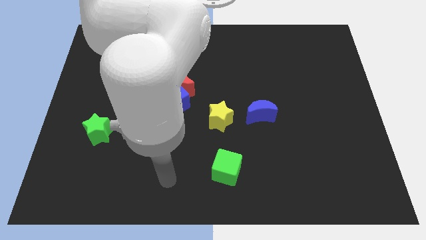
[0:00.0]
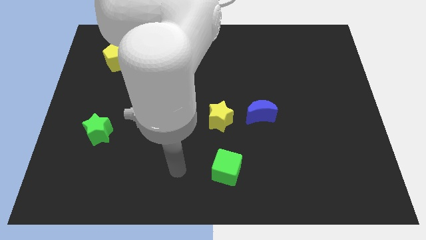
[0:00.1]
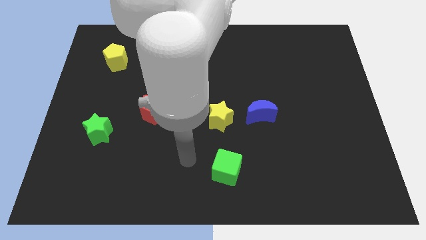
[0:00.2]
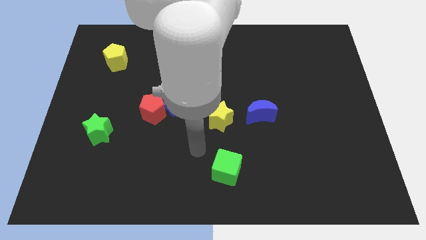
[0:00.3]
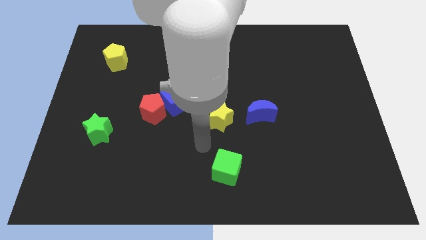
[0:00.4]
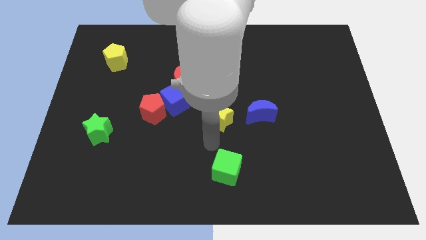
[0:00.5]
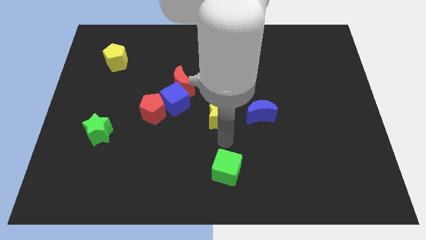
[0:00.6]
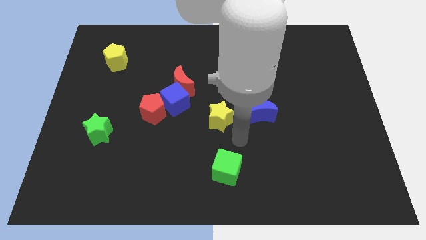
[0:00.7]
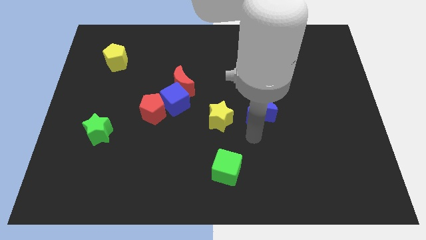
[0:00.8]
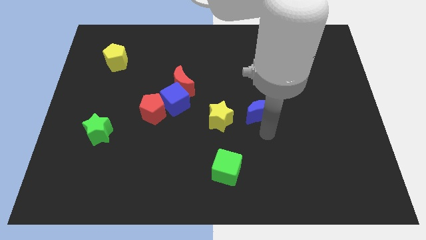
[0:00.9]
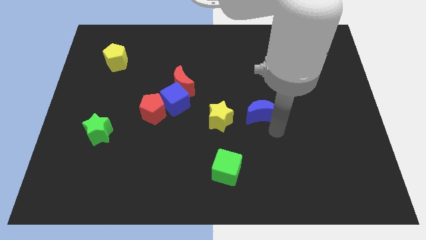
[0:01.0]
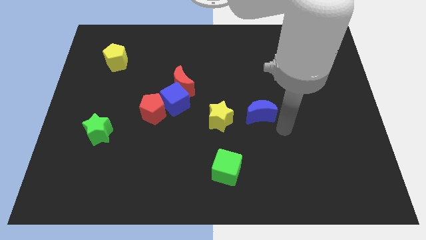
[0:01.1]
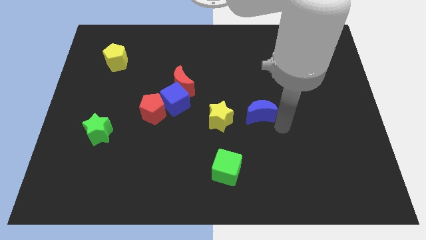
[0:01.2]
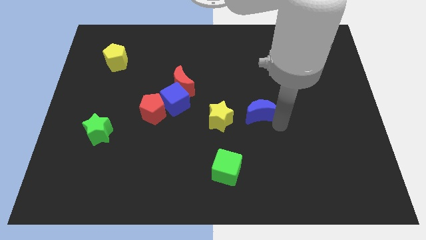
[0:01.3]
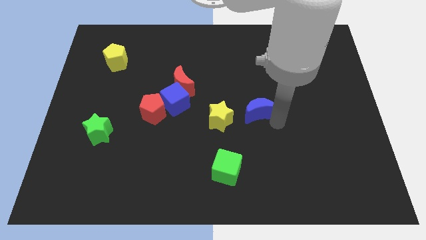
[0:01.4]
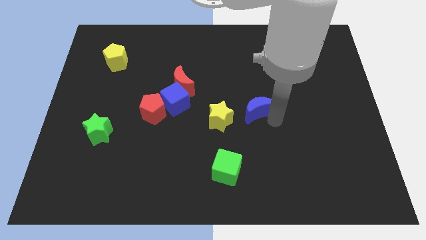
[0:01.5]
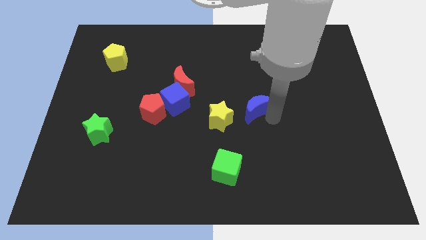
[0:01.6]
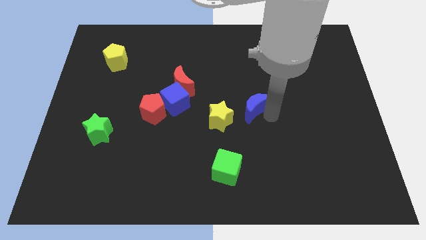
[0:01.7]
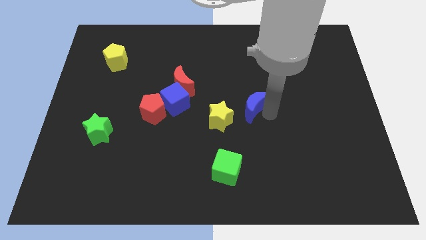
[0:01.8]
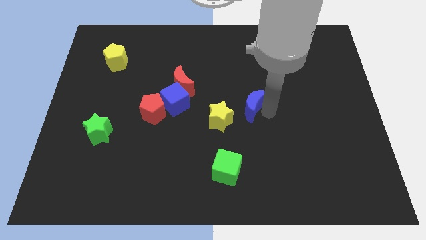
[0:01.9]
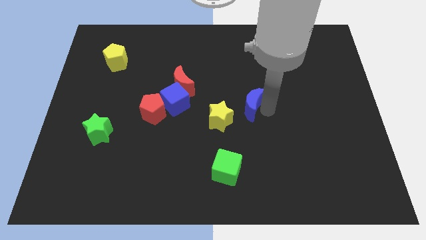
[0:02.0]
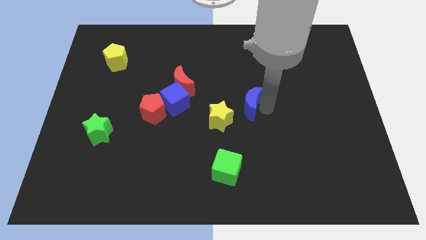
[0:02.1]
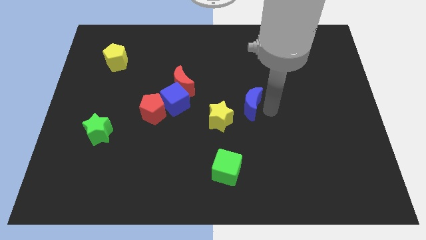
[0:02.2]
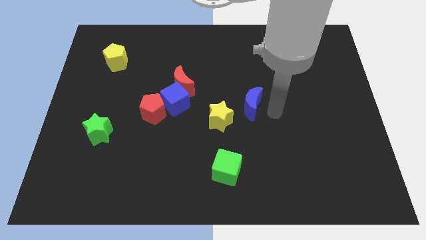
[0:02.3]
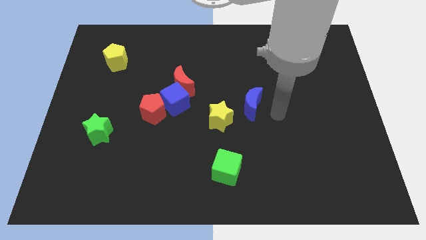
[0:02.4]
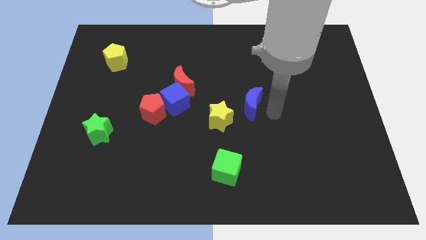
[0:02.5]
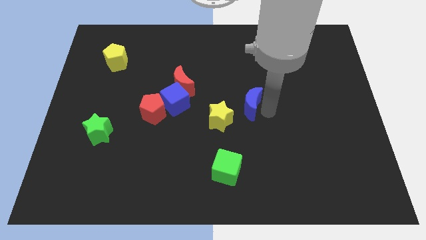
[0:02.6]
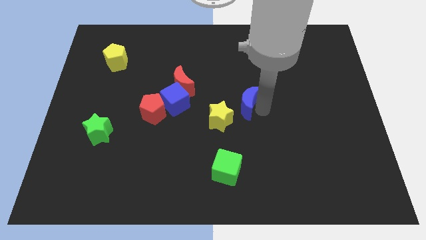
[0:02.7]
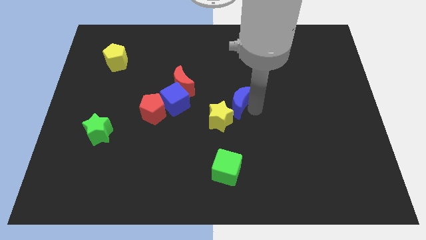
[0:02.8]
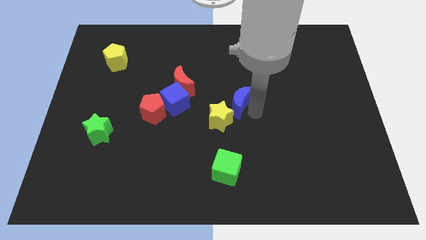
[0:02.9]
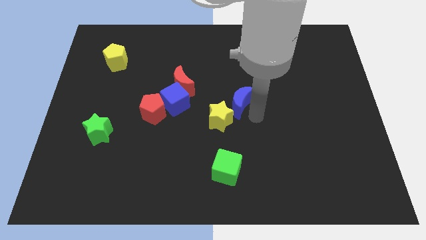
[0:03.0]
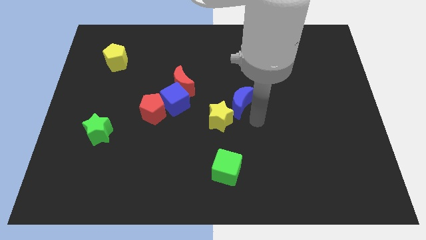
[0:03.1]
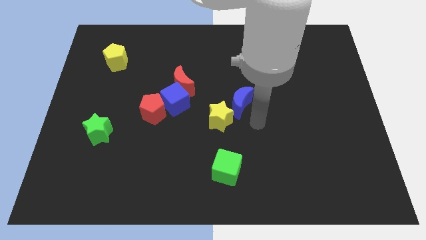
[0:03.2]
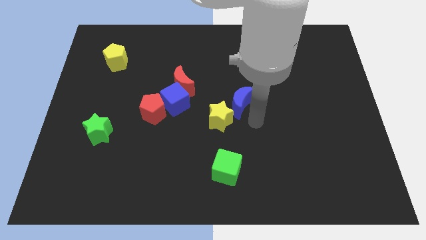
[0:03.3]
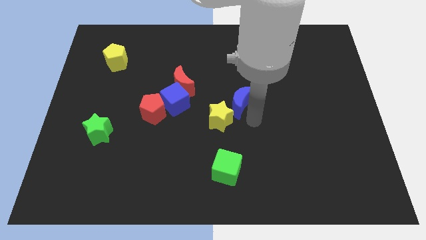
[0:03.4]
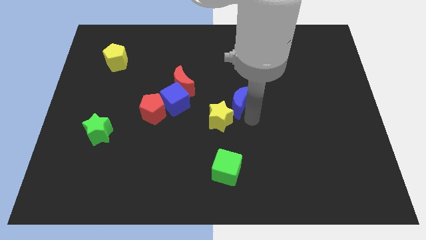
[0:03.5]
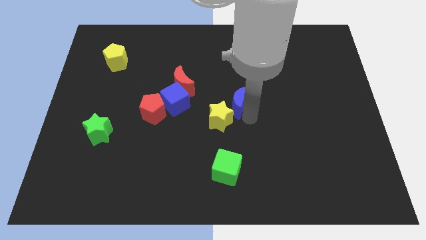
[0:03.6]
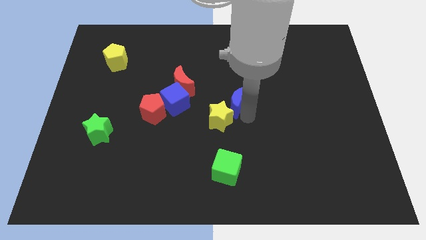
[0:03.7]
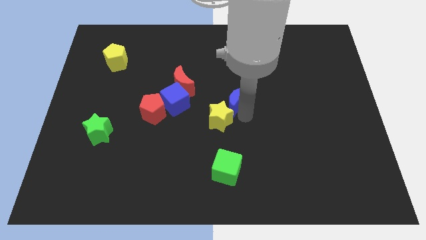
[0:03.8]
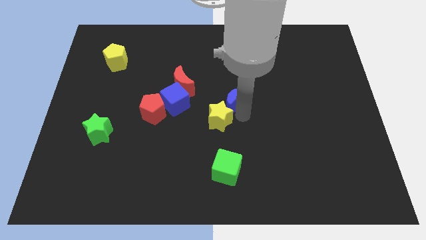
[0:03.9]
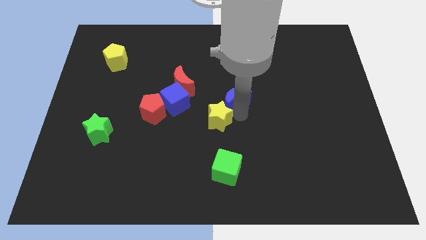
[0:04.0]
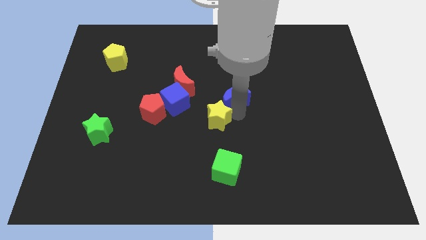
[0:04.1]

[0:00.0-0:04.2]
slide the blue moon a little bit diagonally upwards and to the left

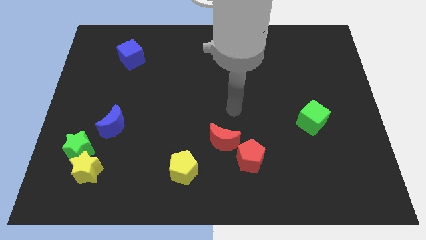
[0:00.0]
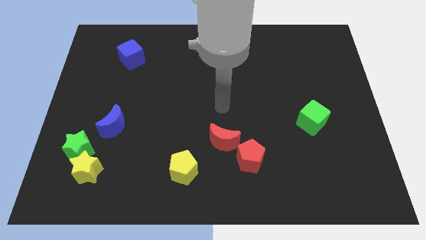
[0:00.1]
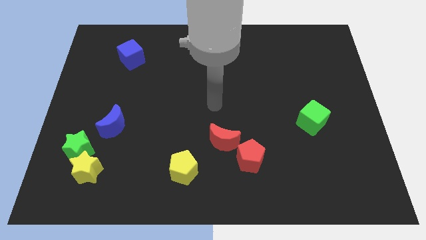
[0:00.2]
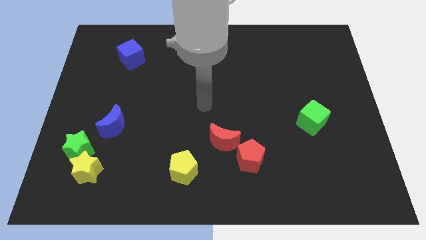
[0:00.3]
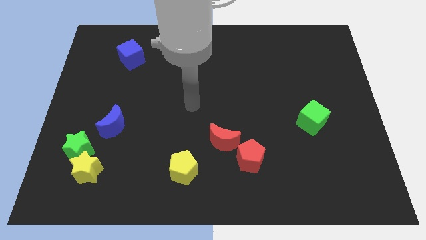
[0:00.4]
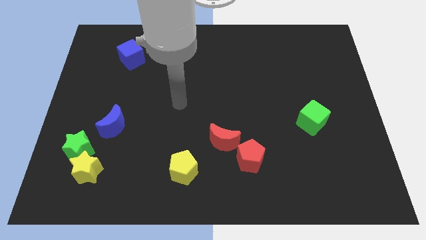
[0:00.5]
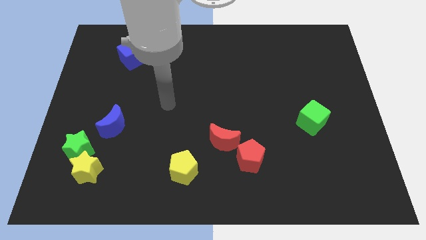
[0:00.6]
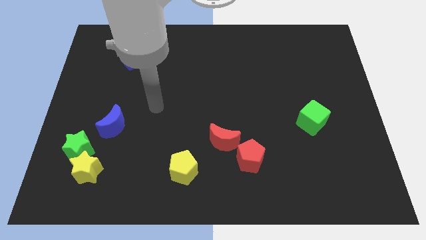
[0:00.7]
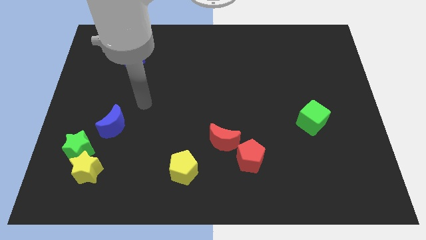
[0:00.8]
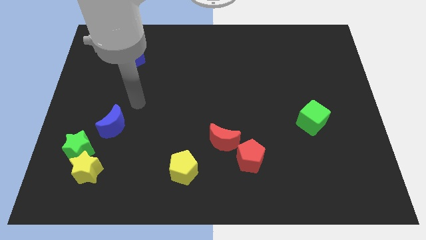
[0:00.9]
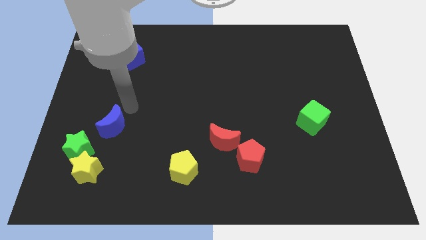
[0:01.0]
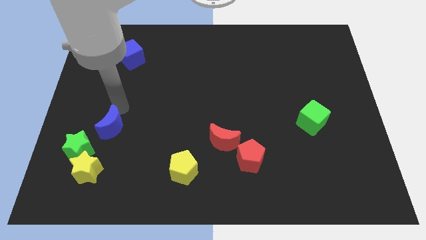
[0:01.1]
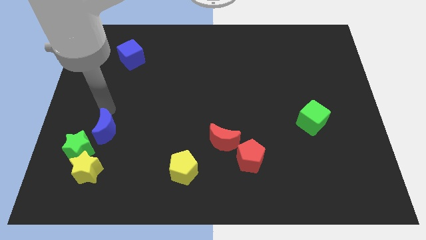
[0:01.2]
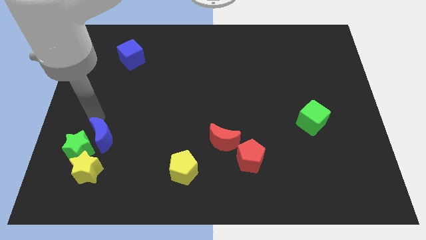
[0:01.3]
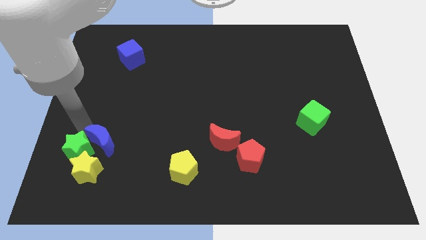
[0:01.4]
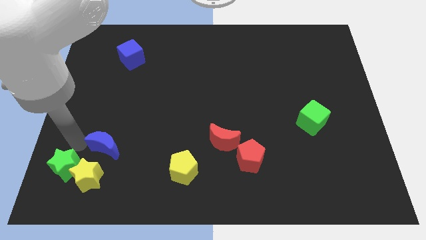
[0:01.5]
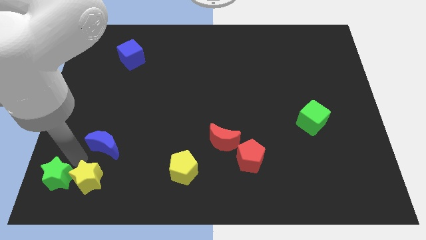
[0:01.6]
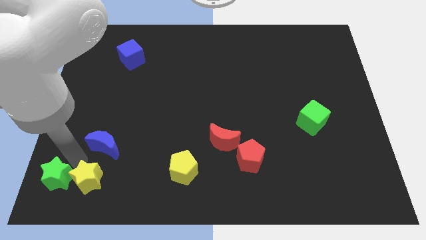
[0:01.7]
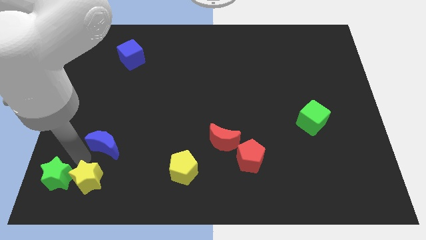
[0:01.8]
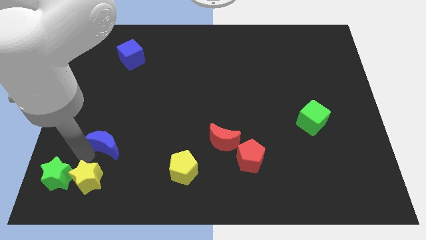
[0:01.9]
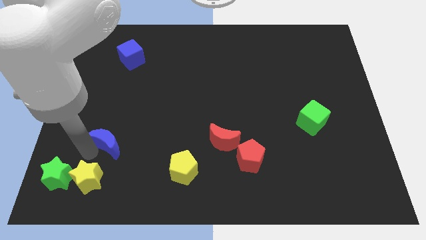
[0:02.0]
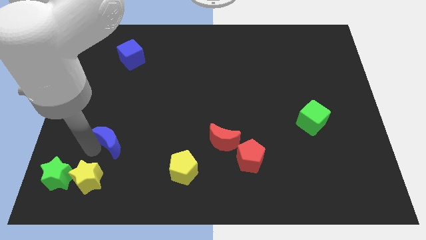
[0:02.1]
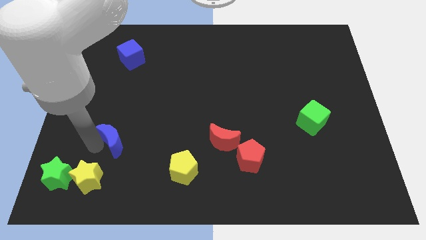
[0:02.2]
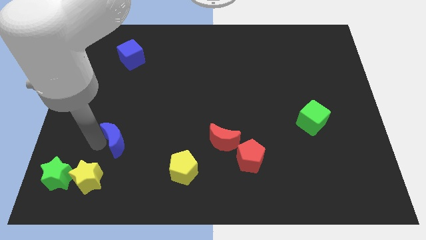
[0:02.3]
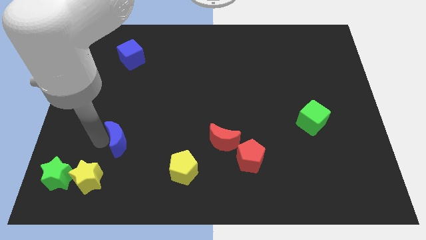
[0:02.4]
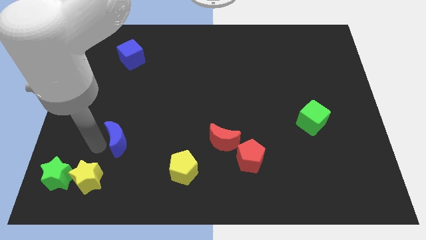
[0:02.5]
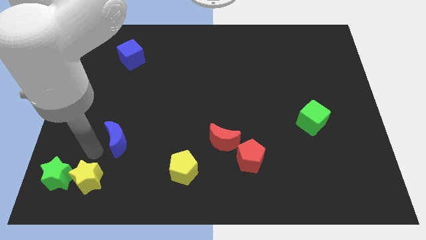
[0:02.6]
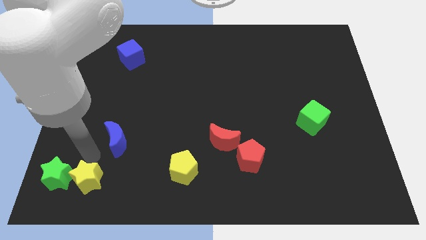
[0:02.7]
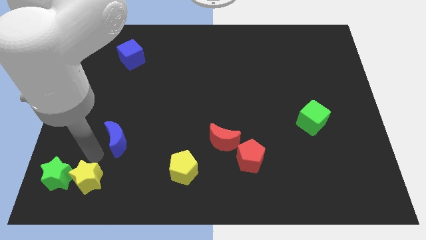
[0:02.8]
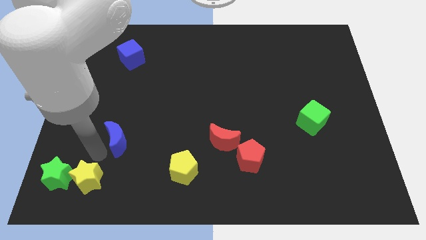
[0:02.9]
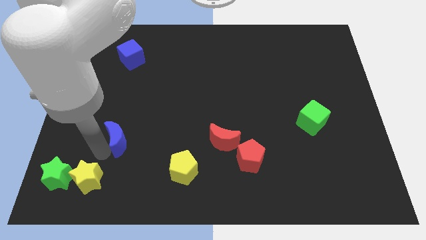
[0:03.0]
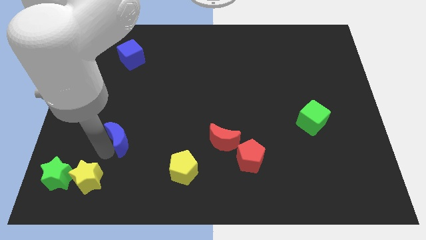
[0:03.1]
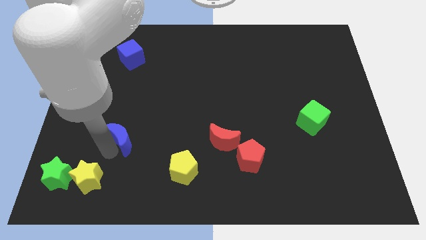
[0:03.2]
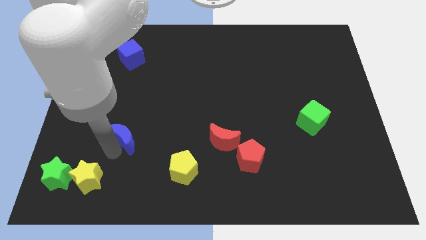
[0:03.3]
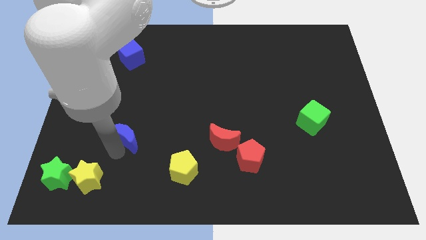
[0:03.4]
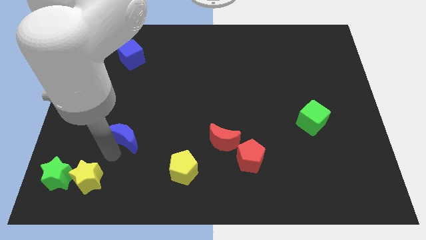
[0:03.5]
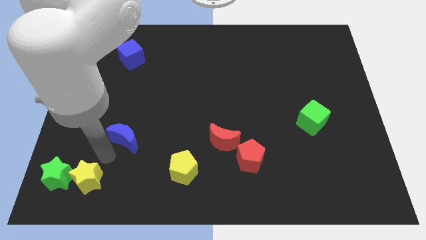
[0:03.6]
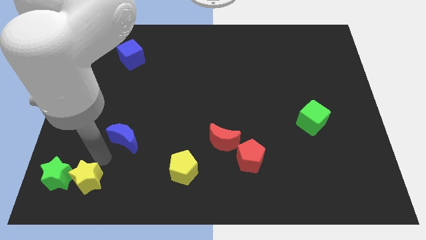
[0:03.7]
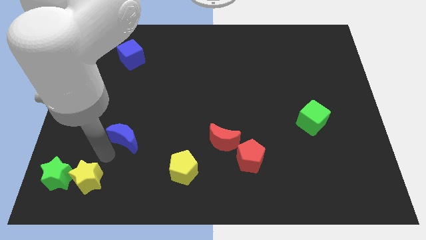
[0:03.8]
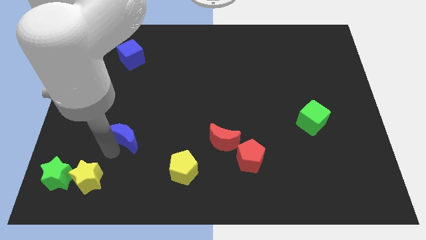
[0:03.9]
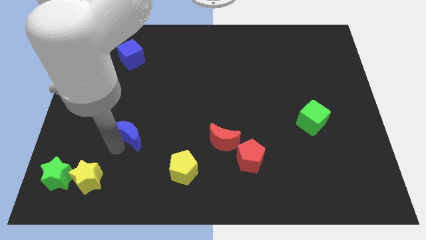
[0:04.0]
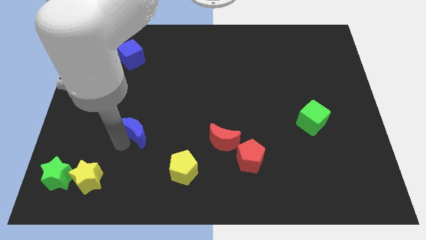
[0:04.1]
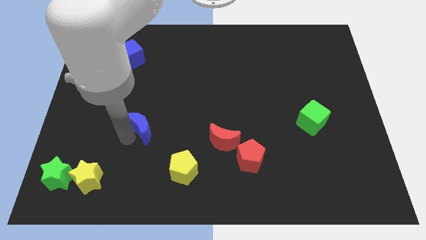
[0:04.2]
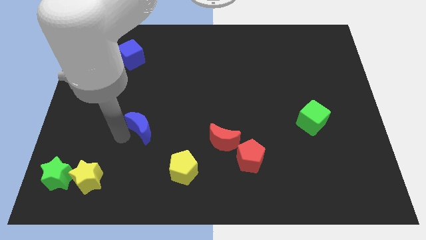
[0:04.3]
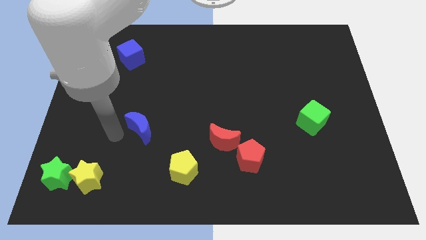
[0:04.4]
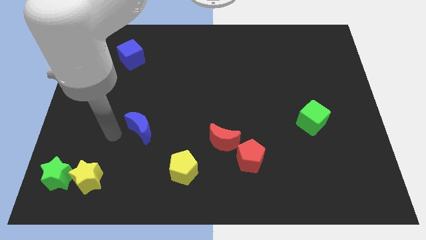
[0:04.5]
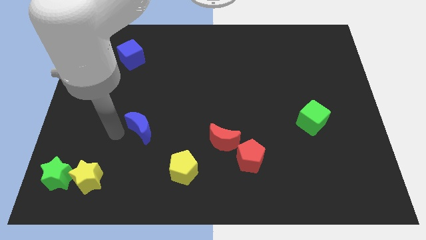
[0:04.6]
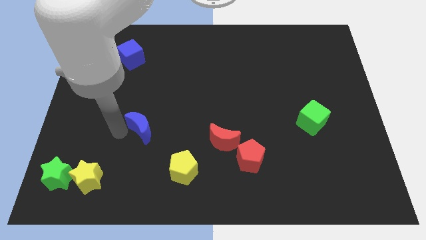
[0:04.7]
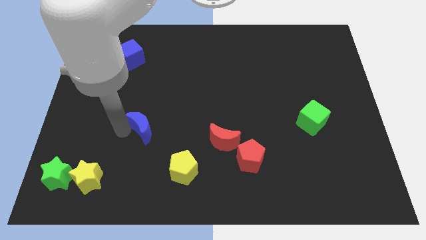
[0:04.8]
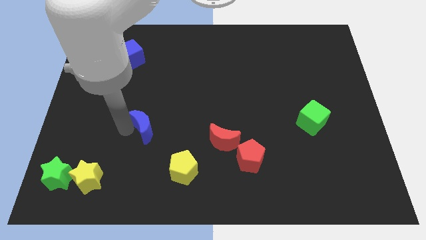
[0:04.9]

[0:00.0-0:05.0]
move the blue moon right somewhat
